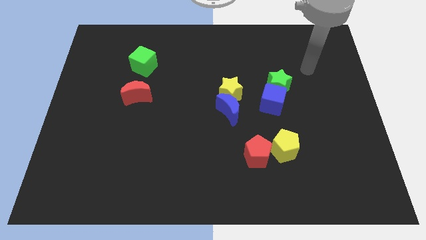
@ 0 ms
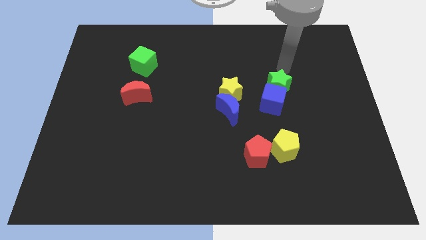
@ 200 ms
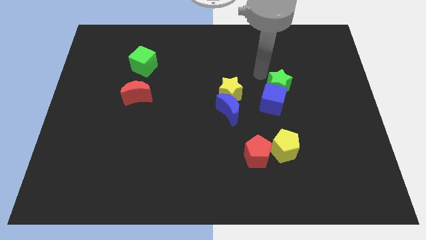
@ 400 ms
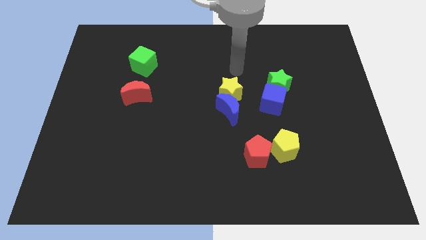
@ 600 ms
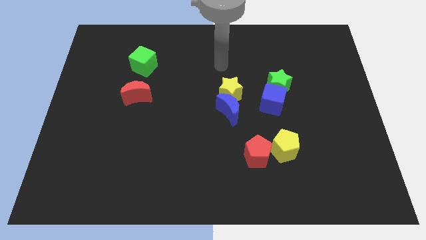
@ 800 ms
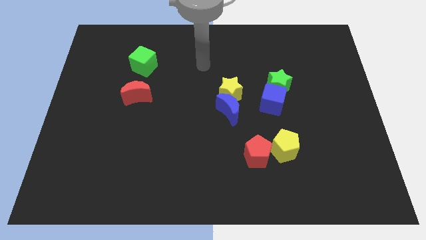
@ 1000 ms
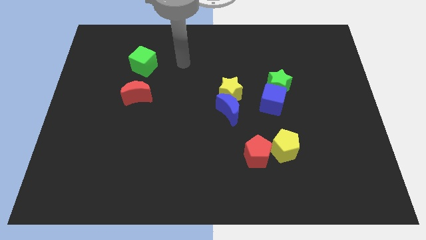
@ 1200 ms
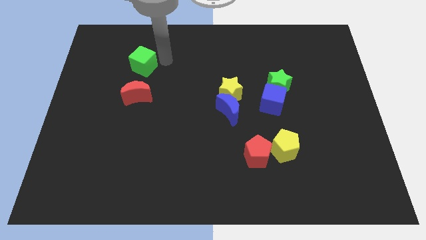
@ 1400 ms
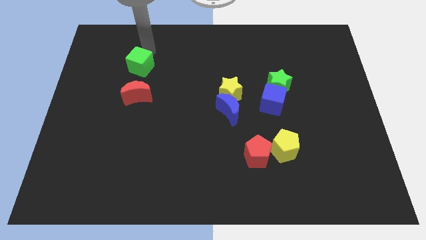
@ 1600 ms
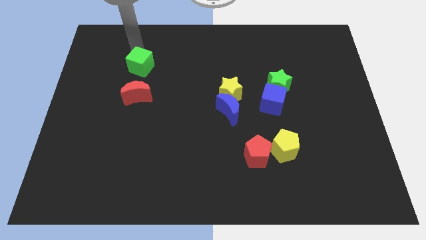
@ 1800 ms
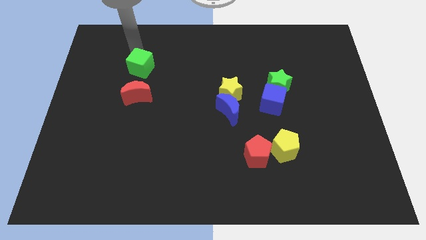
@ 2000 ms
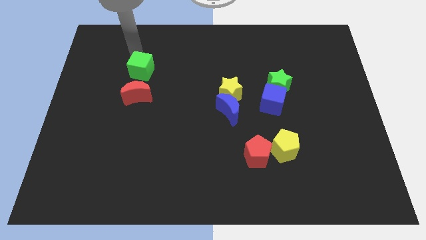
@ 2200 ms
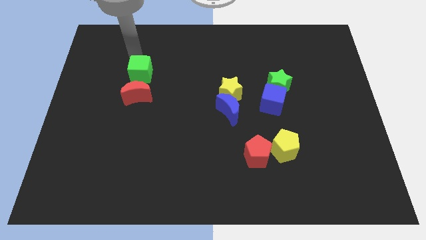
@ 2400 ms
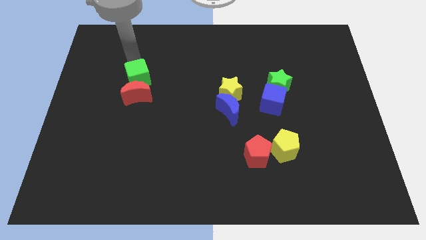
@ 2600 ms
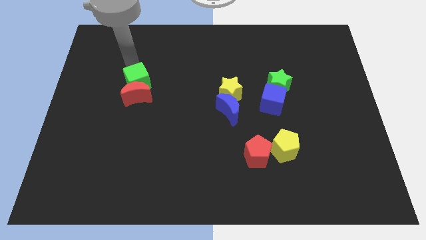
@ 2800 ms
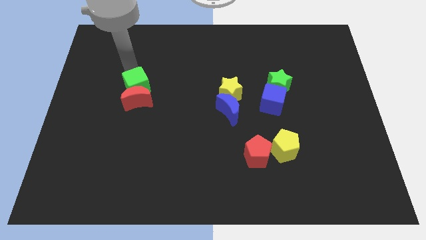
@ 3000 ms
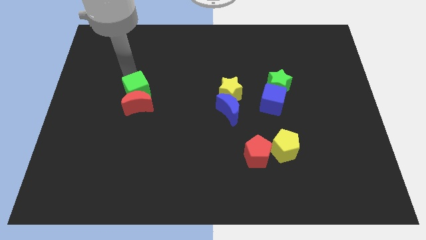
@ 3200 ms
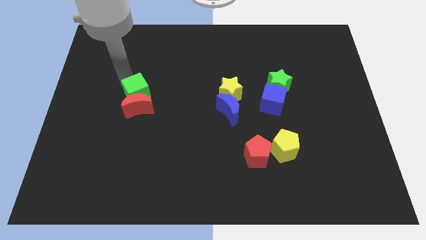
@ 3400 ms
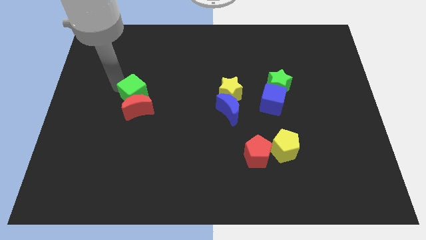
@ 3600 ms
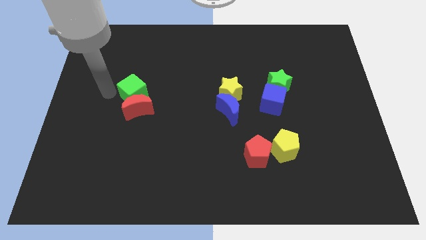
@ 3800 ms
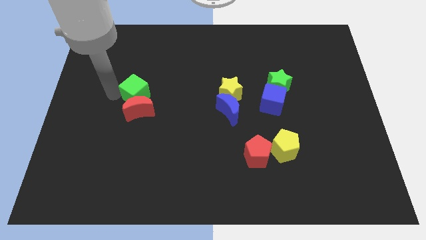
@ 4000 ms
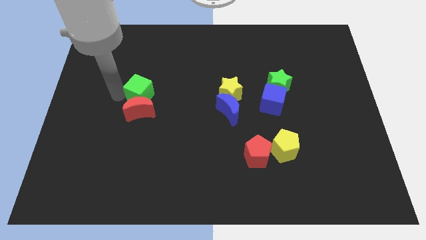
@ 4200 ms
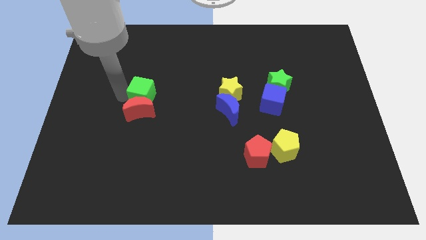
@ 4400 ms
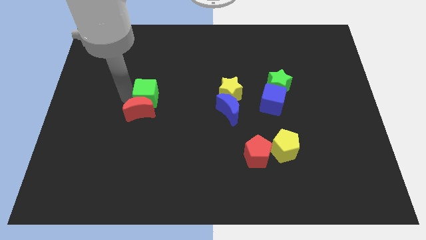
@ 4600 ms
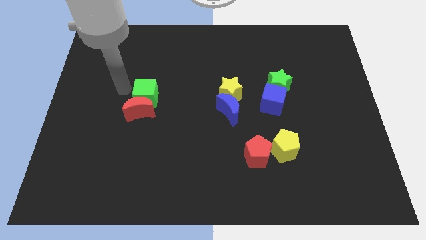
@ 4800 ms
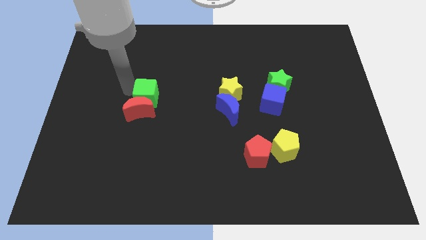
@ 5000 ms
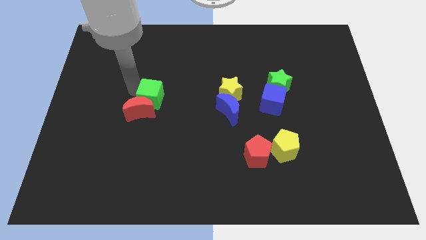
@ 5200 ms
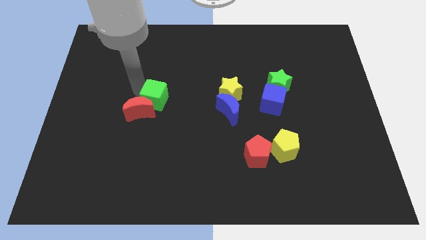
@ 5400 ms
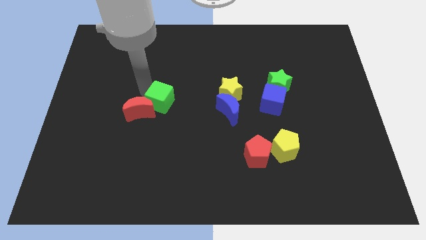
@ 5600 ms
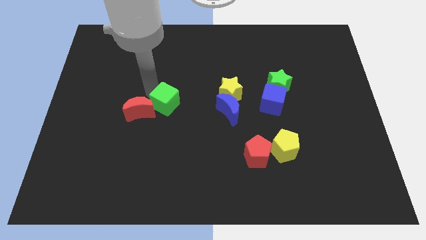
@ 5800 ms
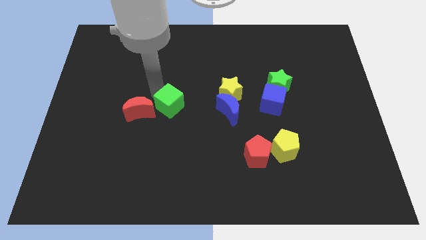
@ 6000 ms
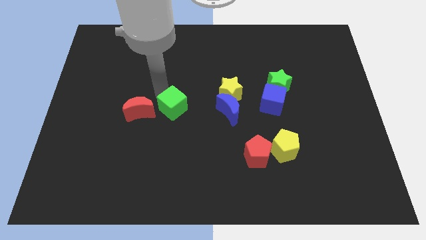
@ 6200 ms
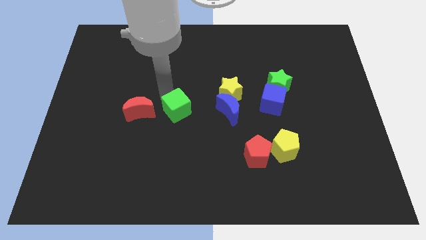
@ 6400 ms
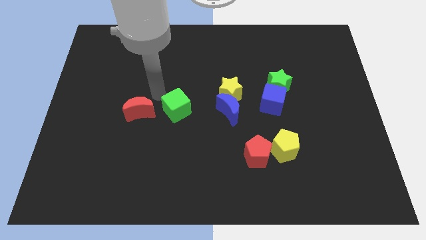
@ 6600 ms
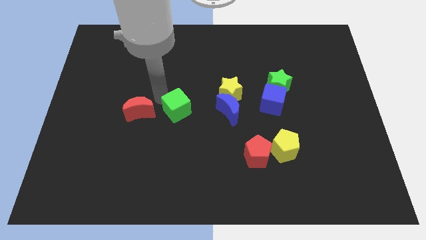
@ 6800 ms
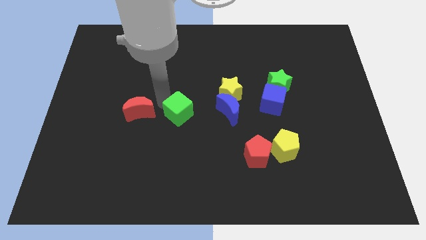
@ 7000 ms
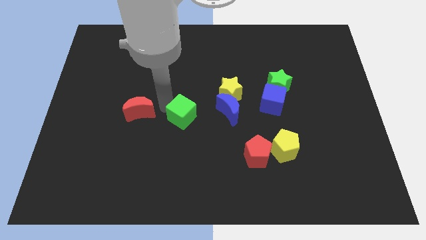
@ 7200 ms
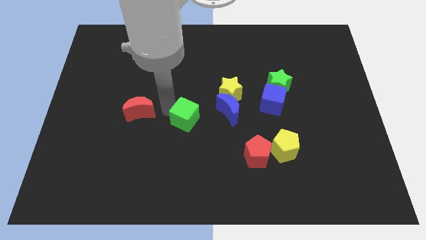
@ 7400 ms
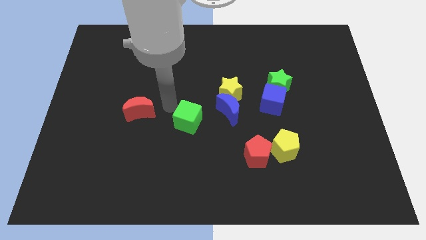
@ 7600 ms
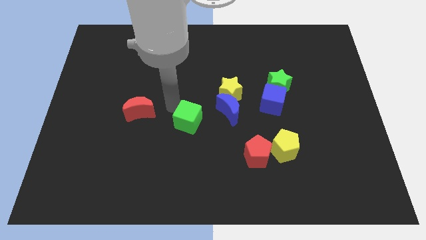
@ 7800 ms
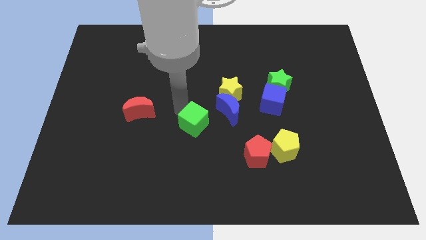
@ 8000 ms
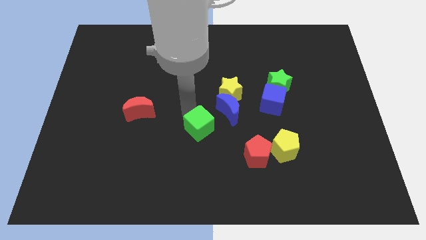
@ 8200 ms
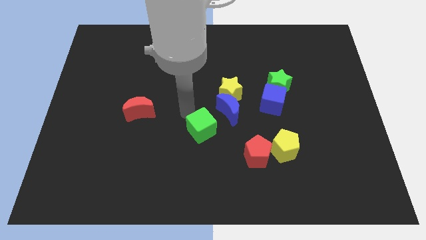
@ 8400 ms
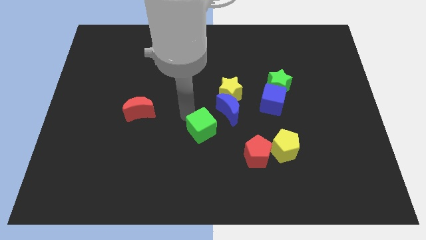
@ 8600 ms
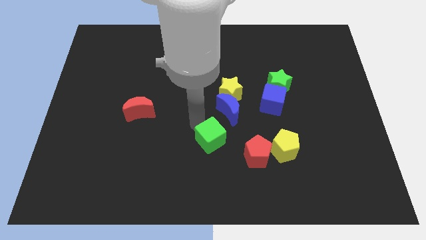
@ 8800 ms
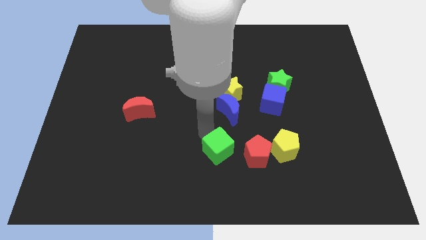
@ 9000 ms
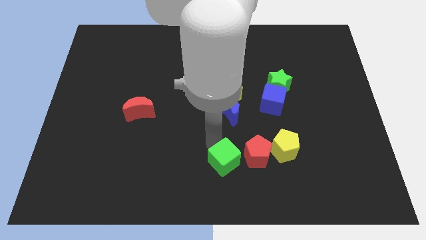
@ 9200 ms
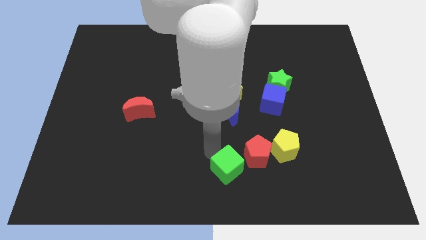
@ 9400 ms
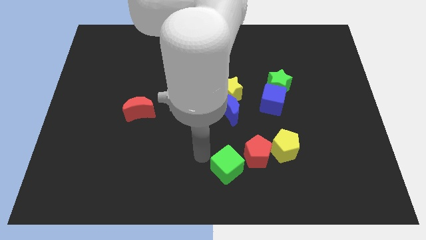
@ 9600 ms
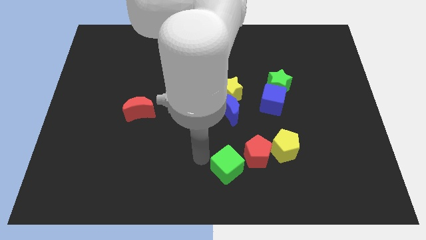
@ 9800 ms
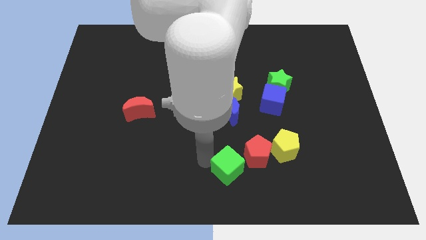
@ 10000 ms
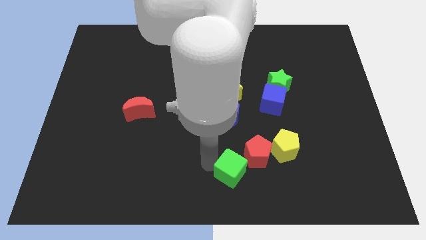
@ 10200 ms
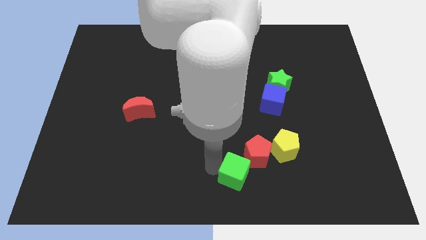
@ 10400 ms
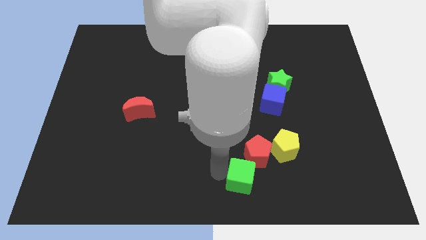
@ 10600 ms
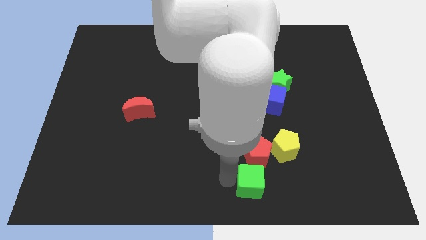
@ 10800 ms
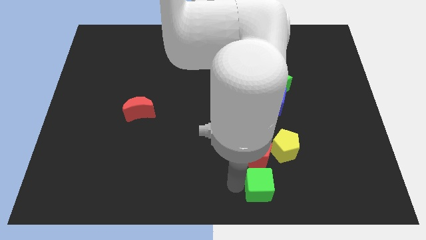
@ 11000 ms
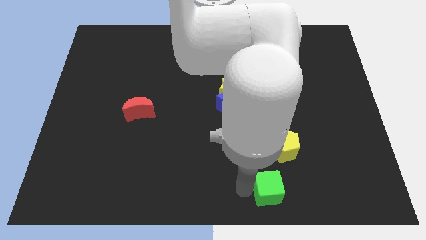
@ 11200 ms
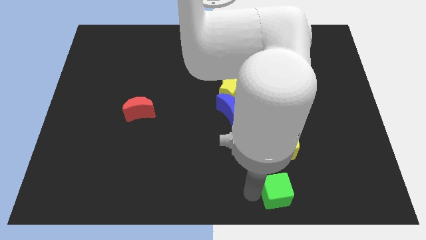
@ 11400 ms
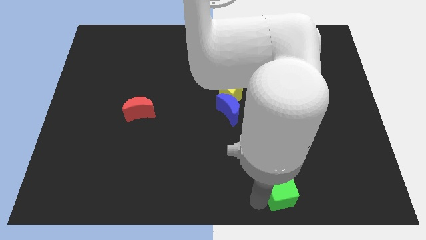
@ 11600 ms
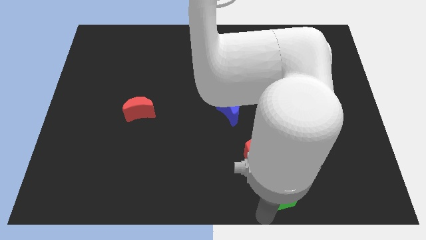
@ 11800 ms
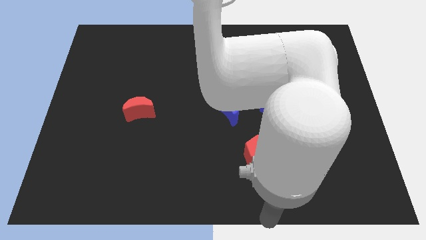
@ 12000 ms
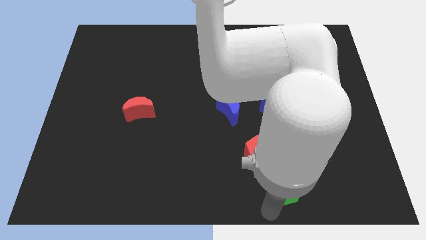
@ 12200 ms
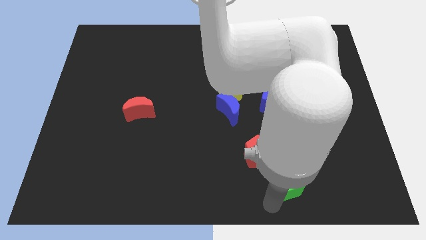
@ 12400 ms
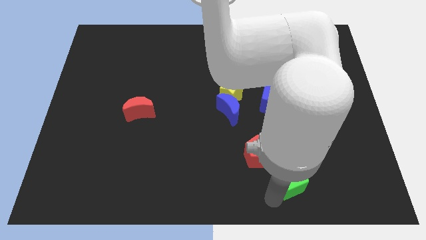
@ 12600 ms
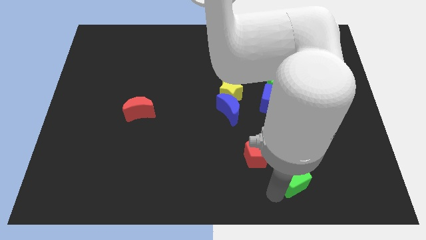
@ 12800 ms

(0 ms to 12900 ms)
put the green cube to the bottom right side of the yellow pentagon
